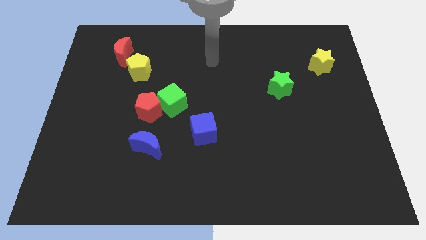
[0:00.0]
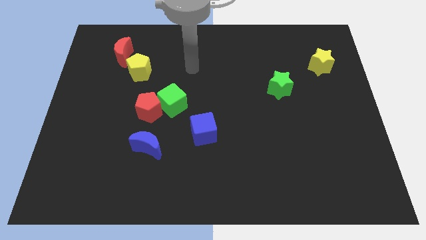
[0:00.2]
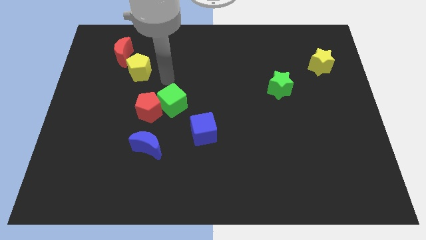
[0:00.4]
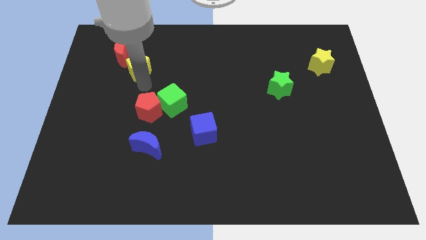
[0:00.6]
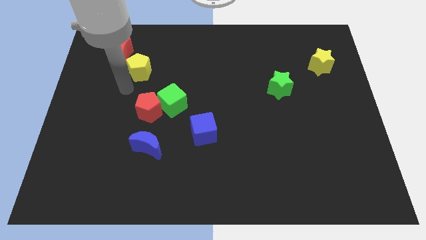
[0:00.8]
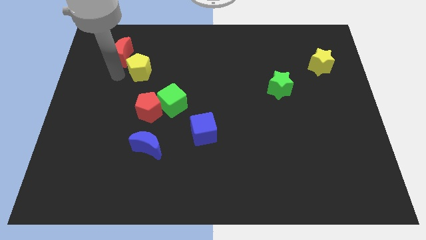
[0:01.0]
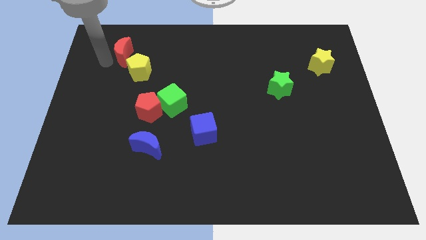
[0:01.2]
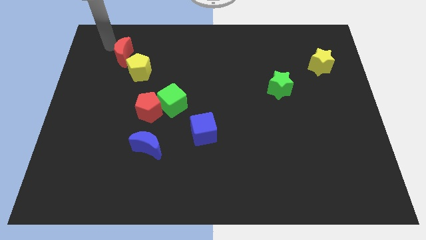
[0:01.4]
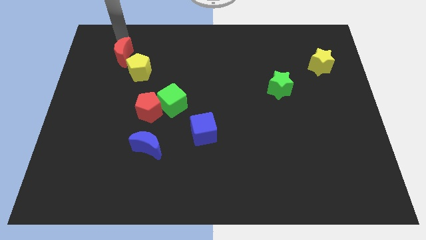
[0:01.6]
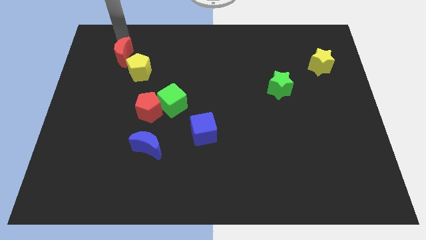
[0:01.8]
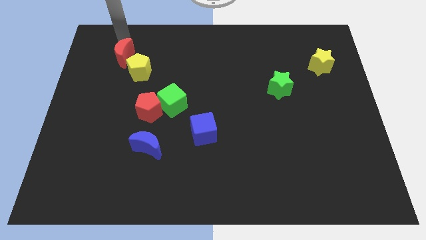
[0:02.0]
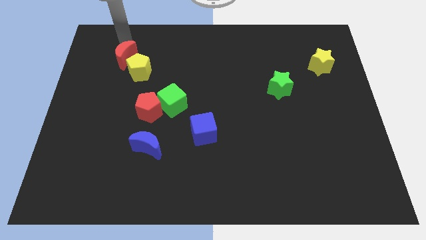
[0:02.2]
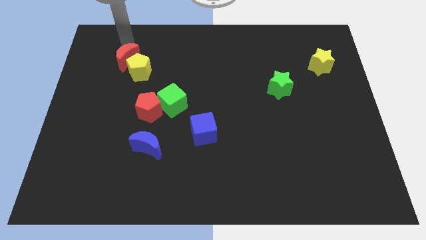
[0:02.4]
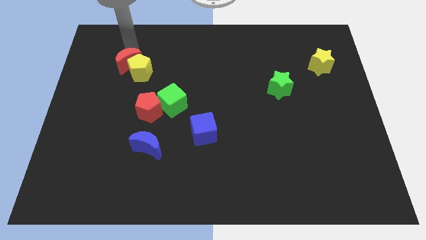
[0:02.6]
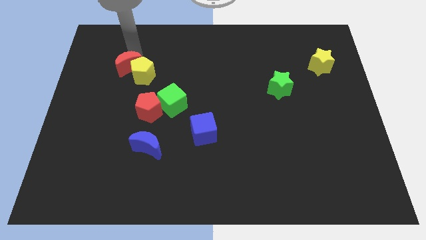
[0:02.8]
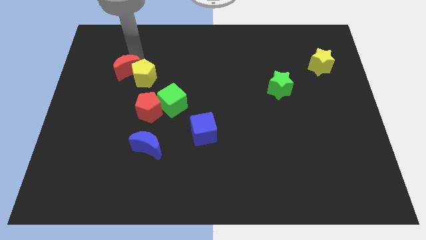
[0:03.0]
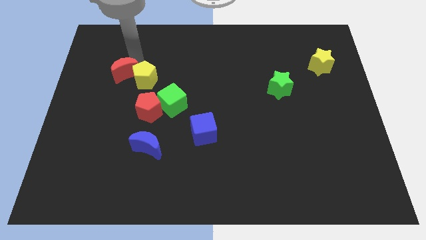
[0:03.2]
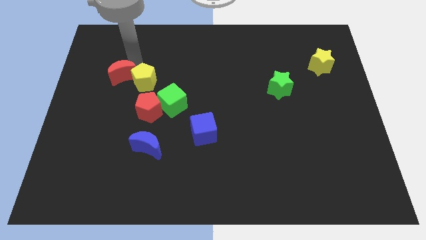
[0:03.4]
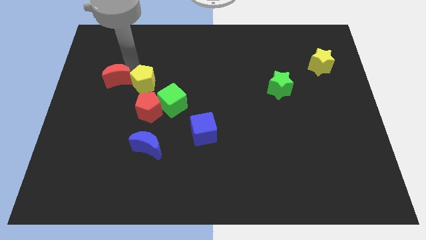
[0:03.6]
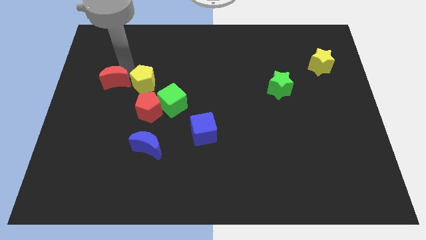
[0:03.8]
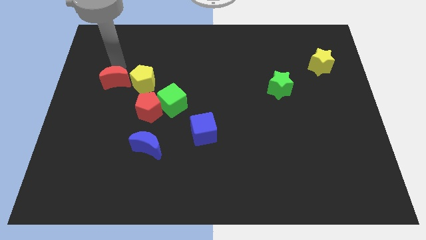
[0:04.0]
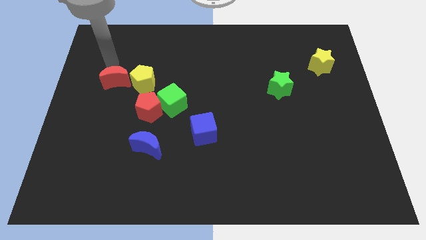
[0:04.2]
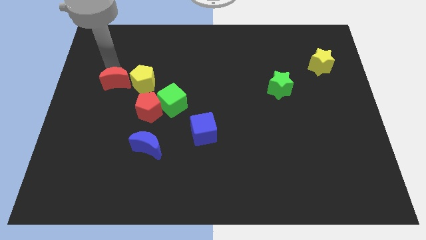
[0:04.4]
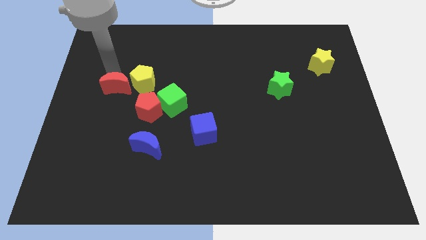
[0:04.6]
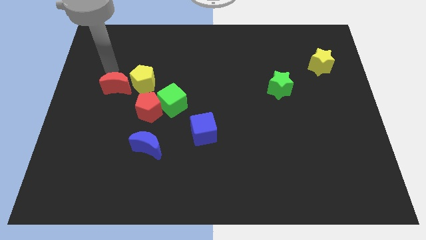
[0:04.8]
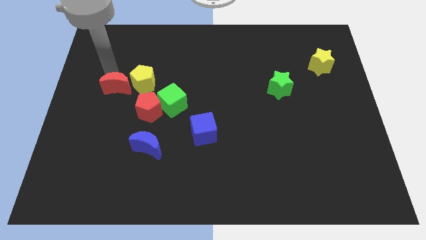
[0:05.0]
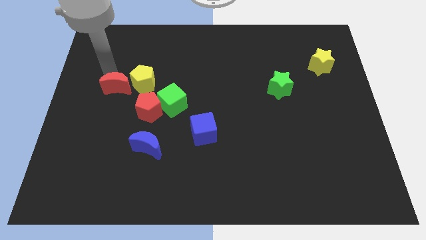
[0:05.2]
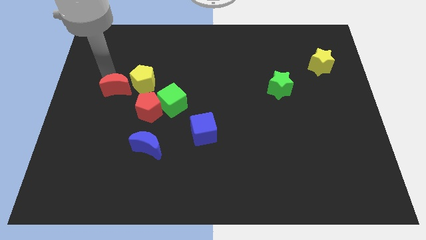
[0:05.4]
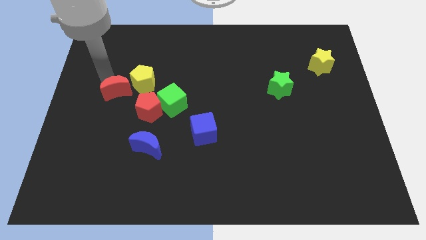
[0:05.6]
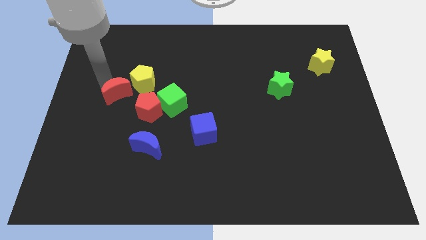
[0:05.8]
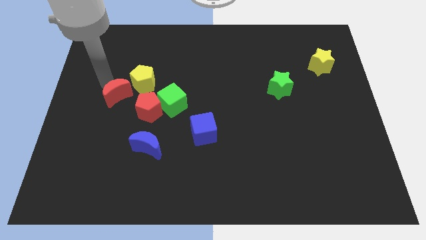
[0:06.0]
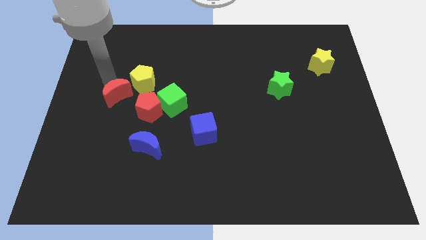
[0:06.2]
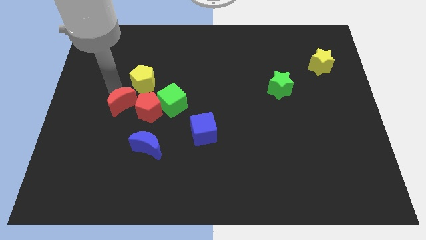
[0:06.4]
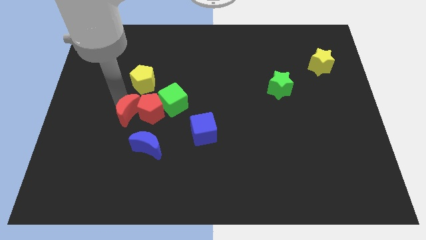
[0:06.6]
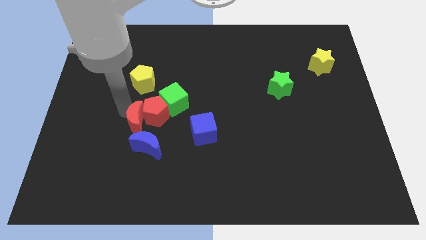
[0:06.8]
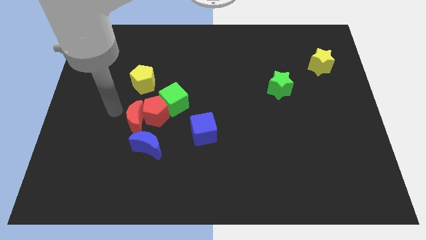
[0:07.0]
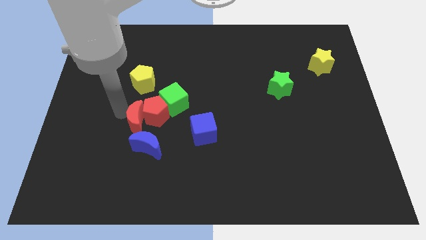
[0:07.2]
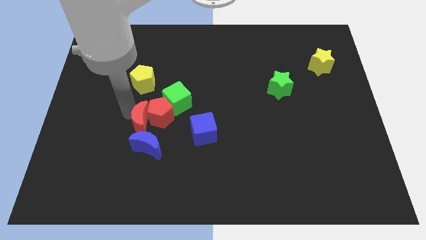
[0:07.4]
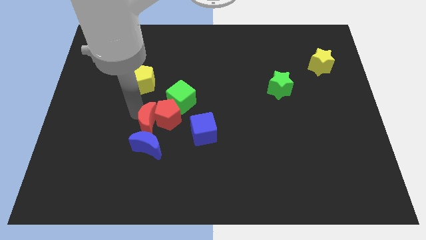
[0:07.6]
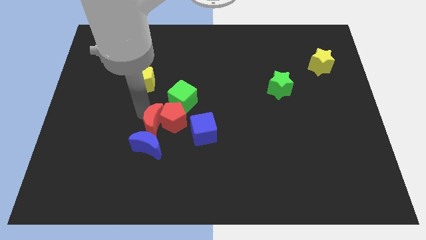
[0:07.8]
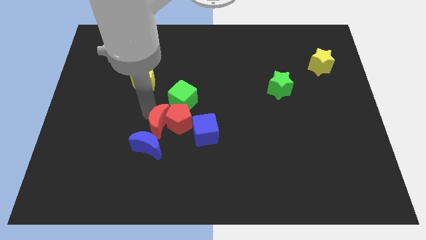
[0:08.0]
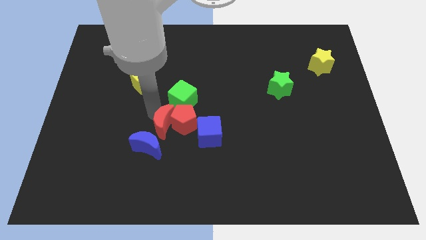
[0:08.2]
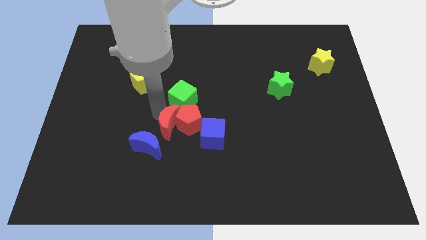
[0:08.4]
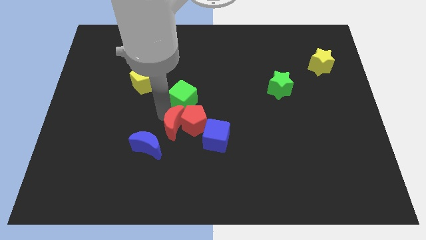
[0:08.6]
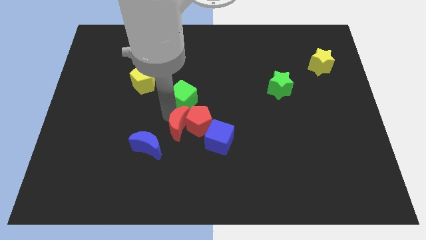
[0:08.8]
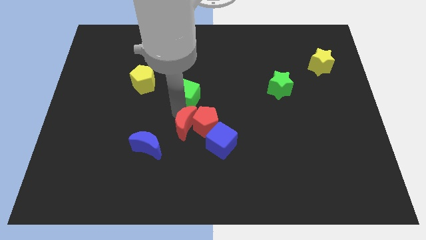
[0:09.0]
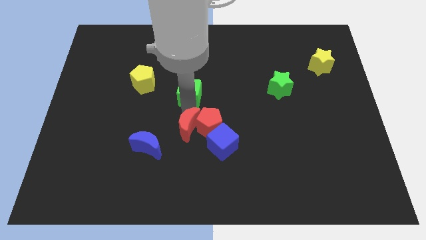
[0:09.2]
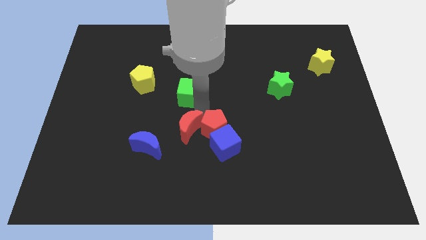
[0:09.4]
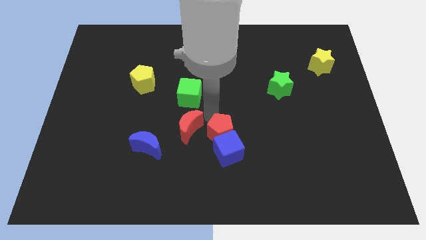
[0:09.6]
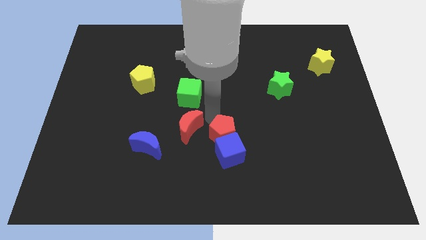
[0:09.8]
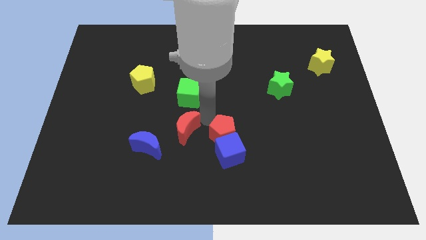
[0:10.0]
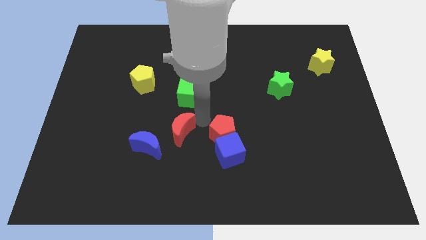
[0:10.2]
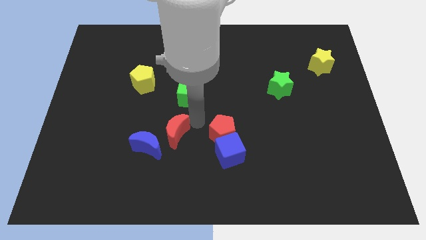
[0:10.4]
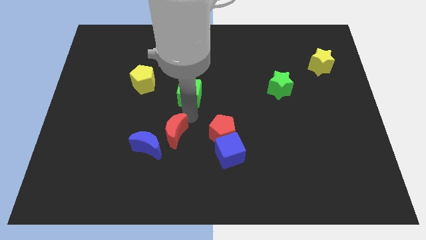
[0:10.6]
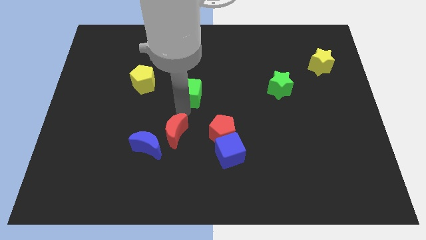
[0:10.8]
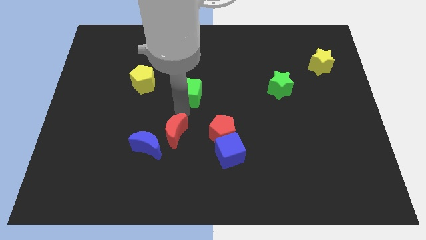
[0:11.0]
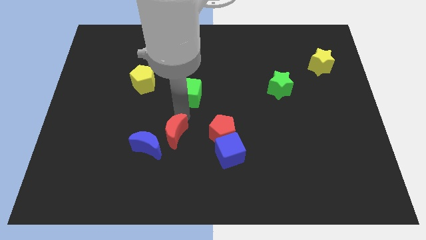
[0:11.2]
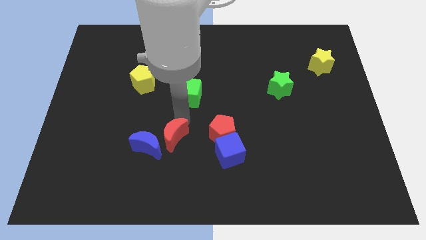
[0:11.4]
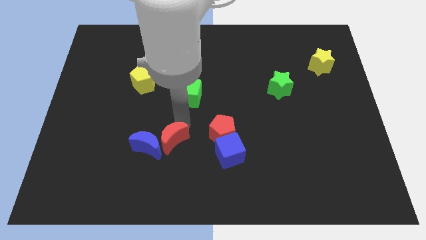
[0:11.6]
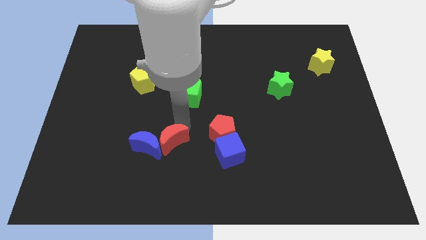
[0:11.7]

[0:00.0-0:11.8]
put the red moon diagonally down and to the right of the blue moon

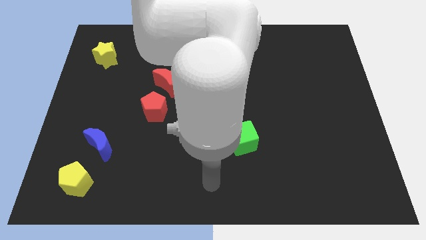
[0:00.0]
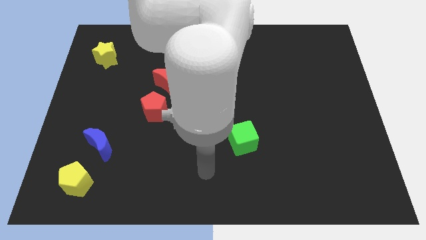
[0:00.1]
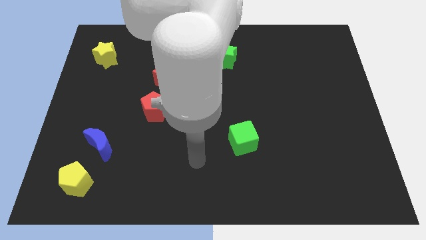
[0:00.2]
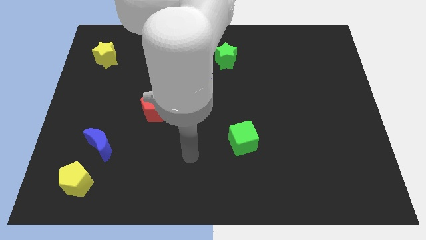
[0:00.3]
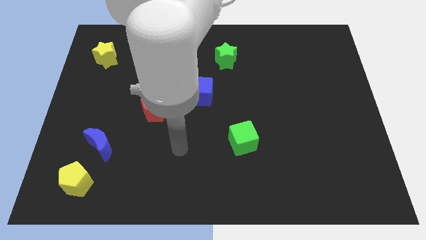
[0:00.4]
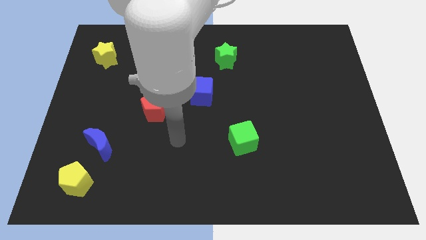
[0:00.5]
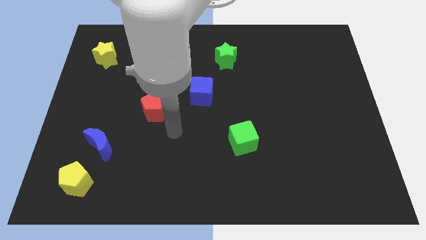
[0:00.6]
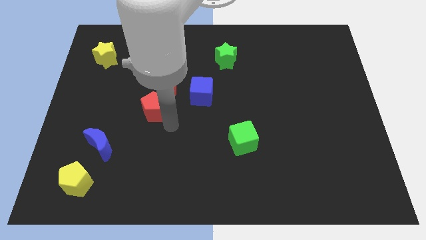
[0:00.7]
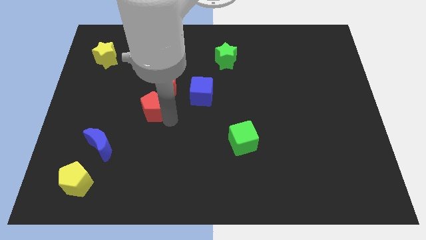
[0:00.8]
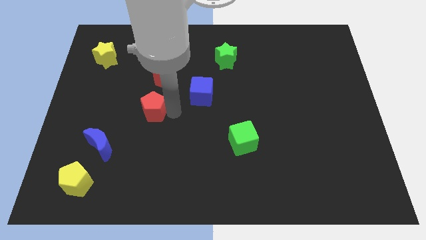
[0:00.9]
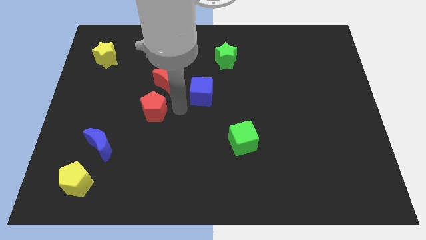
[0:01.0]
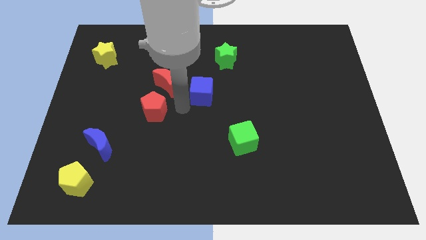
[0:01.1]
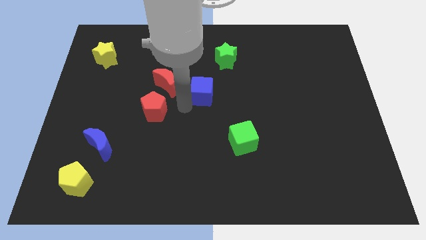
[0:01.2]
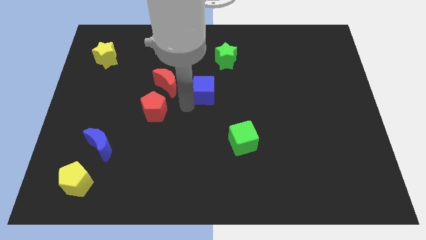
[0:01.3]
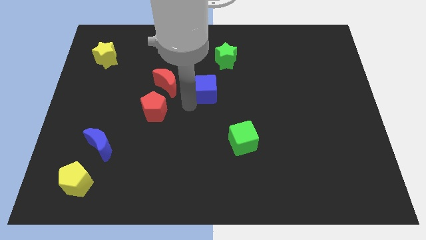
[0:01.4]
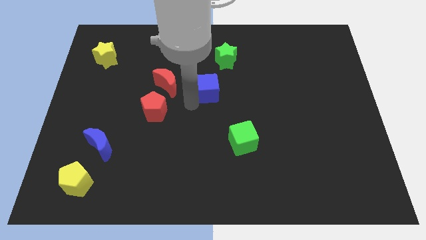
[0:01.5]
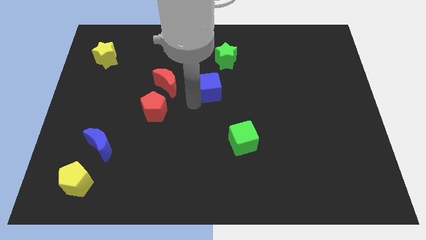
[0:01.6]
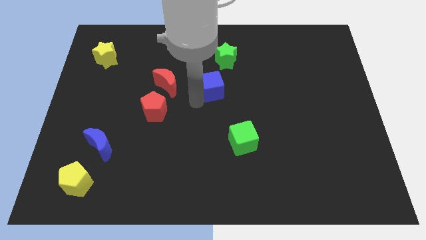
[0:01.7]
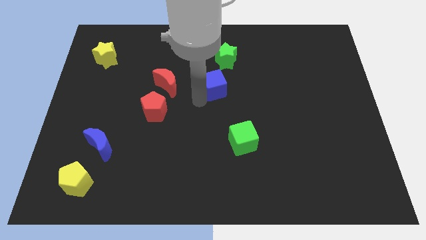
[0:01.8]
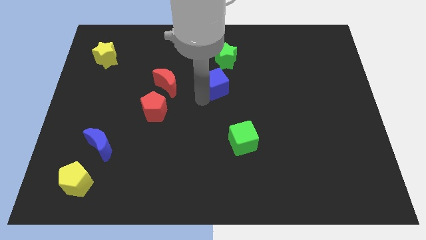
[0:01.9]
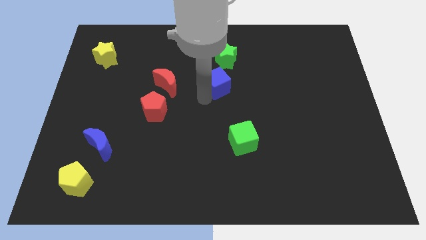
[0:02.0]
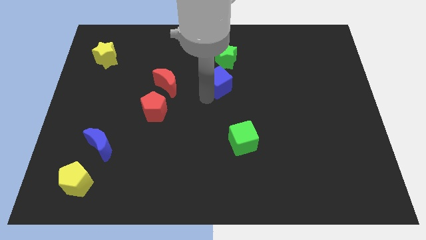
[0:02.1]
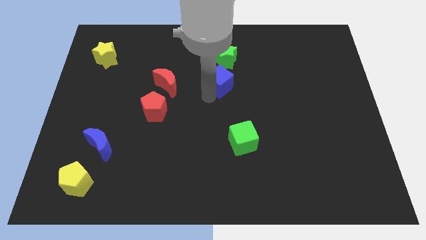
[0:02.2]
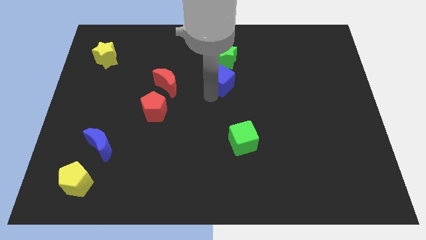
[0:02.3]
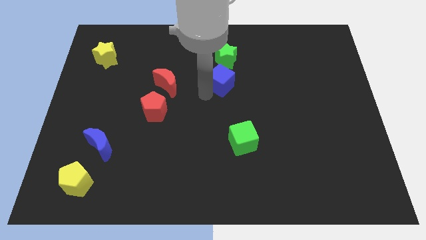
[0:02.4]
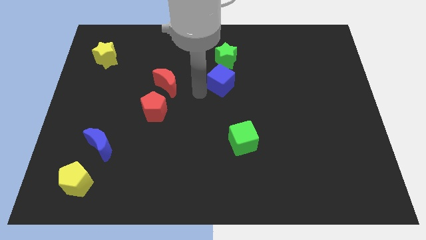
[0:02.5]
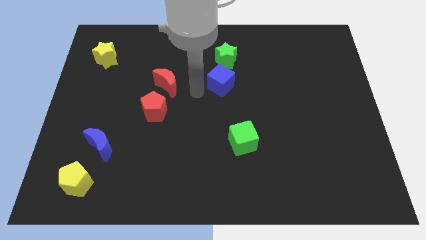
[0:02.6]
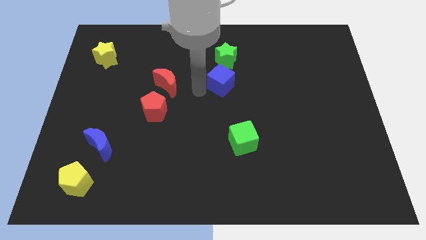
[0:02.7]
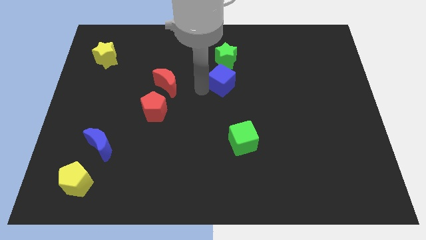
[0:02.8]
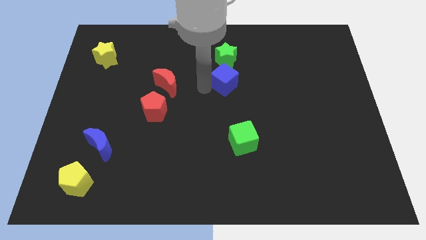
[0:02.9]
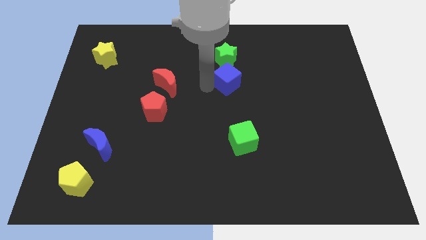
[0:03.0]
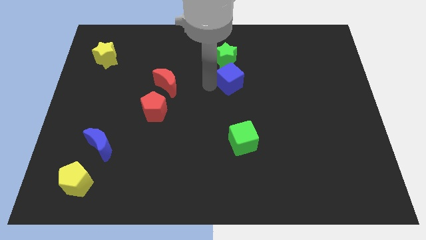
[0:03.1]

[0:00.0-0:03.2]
move the blue cube to the bottom right of the green star
